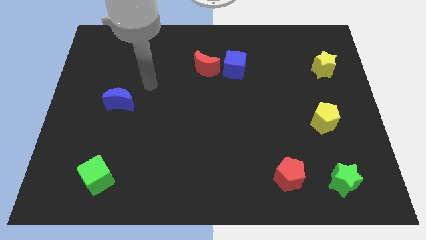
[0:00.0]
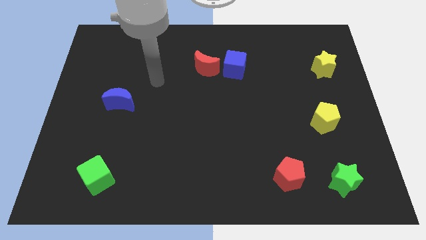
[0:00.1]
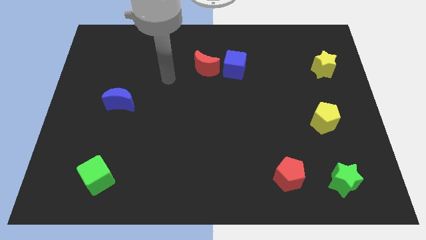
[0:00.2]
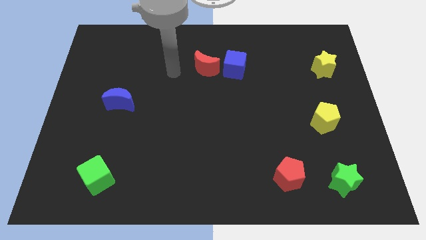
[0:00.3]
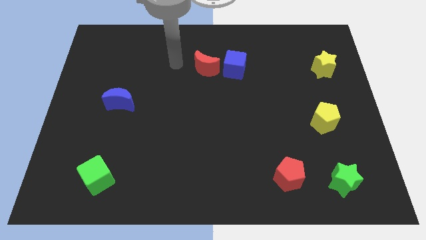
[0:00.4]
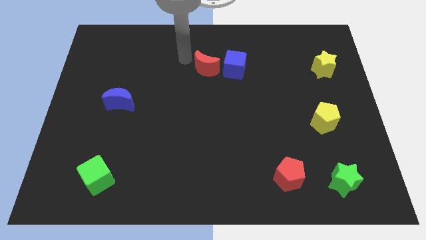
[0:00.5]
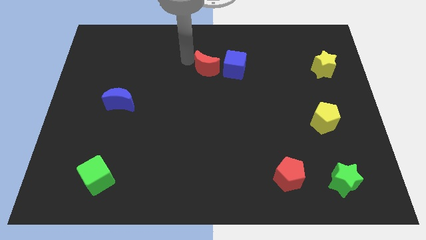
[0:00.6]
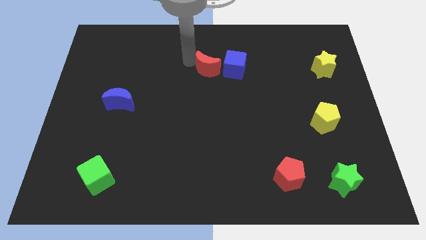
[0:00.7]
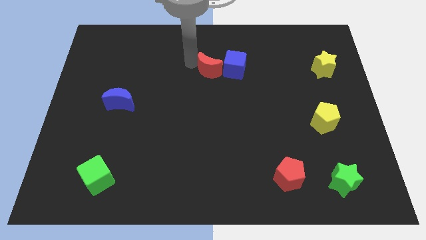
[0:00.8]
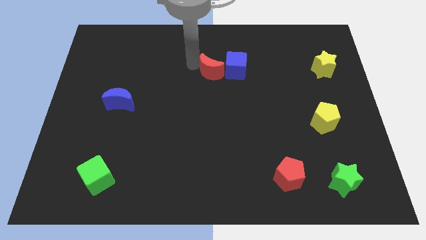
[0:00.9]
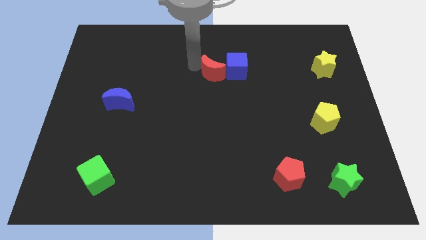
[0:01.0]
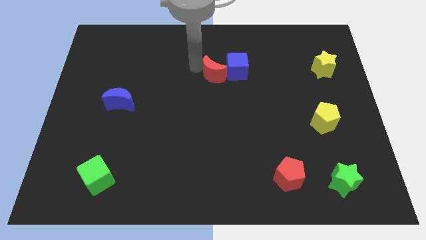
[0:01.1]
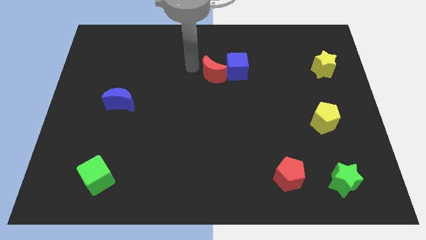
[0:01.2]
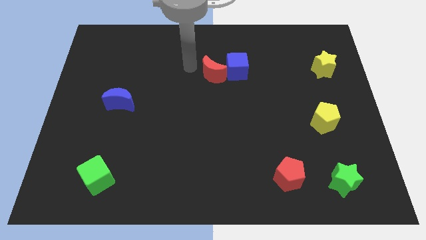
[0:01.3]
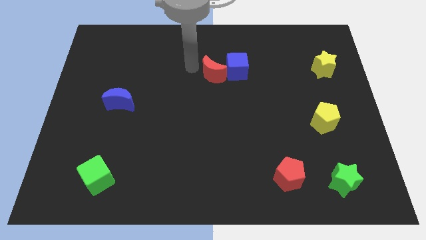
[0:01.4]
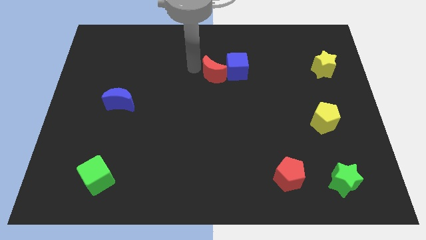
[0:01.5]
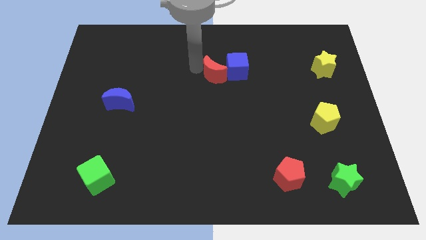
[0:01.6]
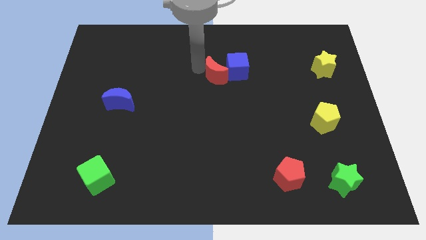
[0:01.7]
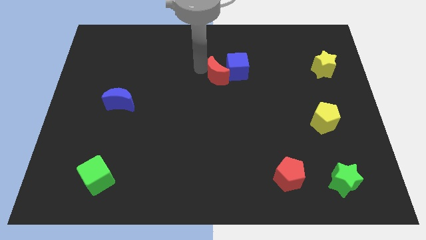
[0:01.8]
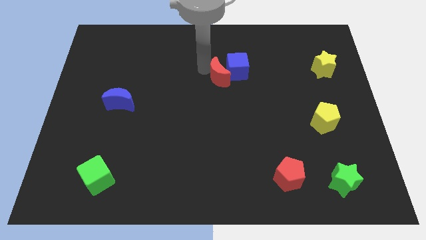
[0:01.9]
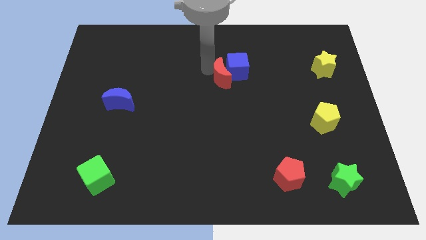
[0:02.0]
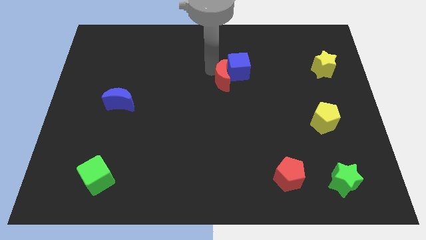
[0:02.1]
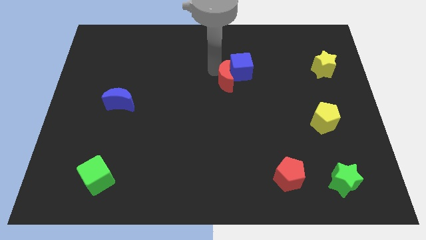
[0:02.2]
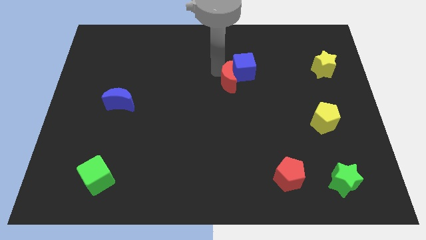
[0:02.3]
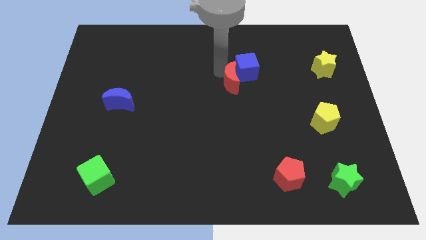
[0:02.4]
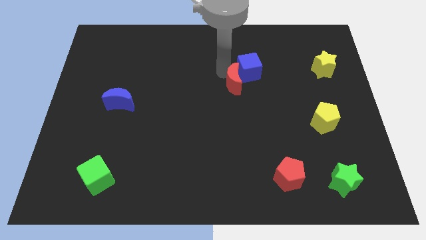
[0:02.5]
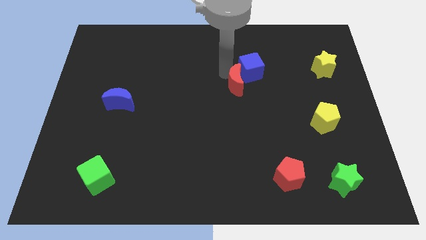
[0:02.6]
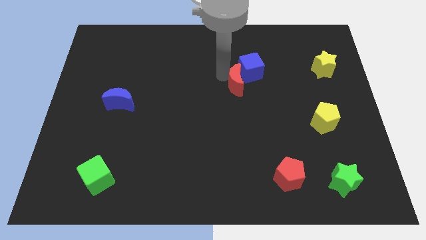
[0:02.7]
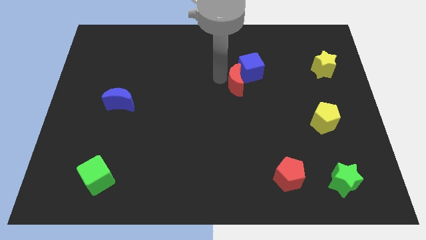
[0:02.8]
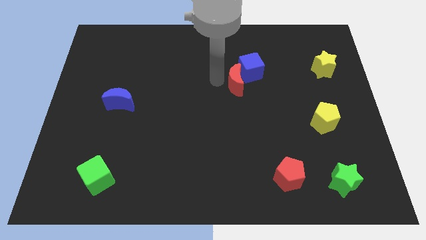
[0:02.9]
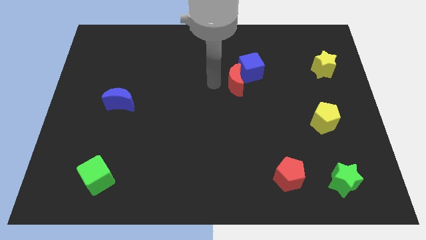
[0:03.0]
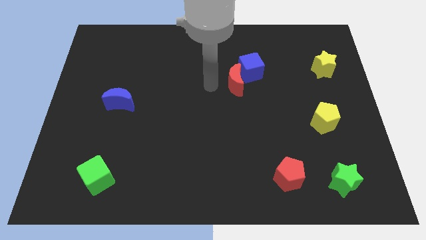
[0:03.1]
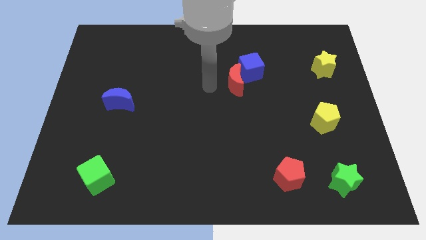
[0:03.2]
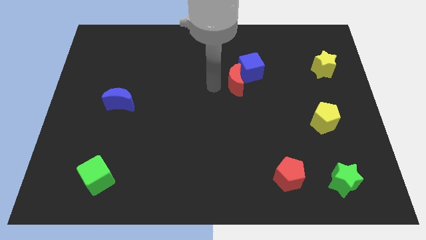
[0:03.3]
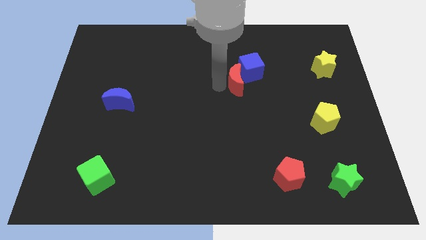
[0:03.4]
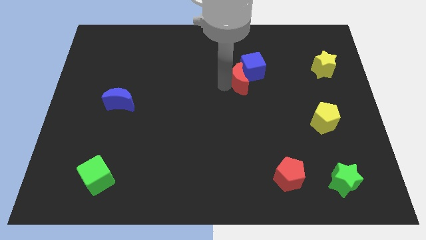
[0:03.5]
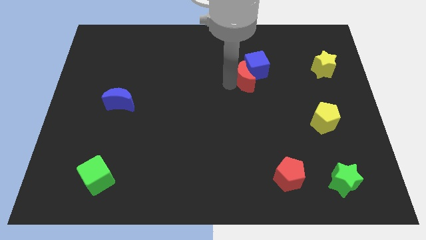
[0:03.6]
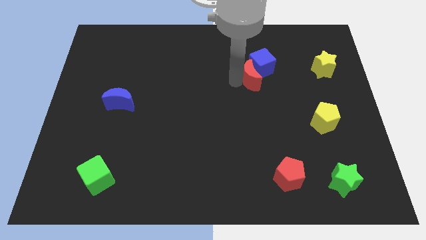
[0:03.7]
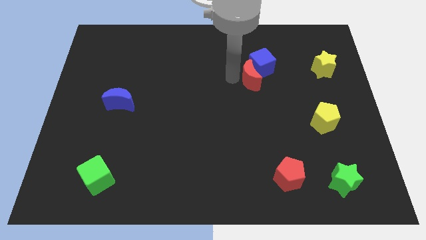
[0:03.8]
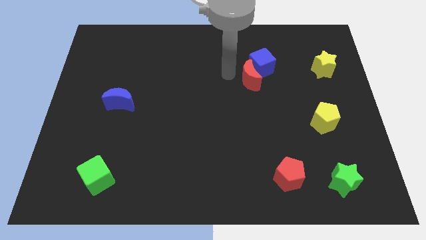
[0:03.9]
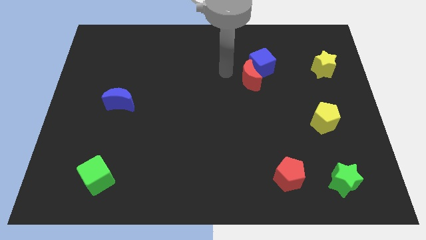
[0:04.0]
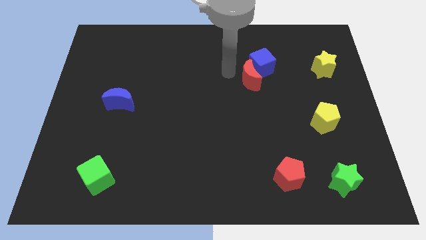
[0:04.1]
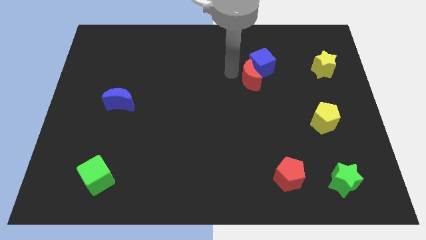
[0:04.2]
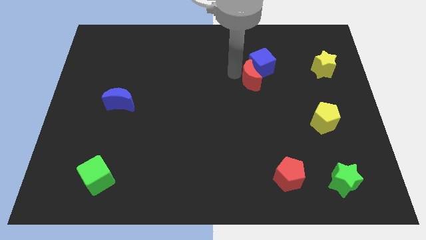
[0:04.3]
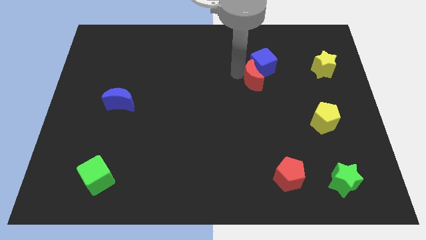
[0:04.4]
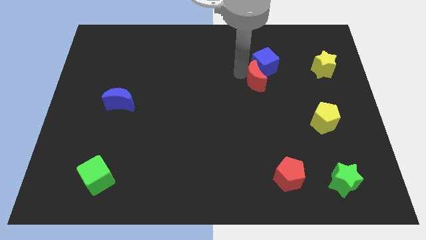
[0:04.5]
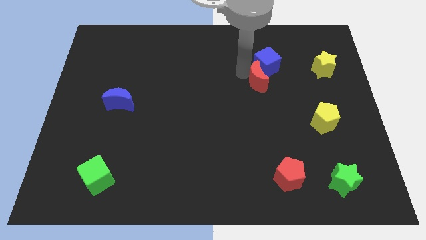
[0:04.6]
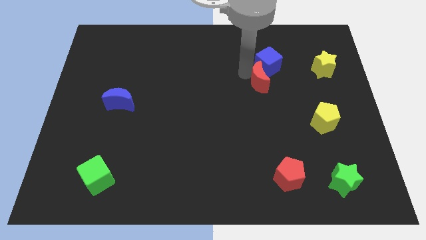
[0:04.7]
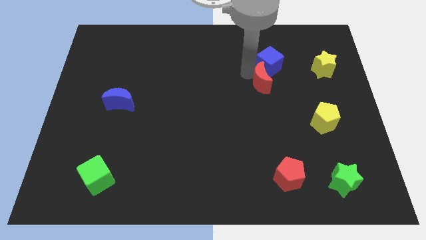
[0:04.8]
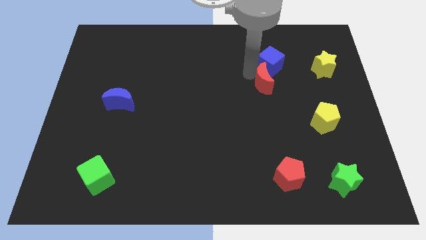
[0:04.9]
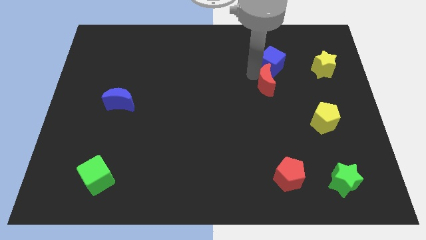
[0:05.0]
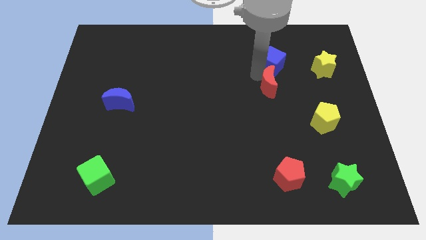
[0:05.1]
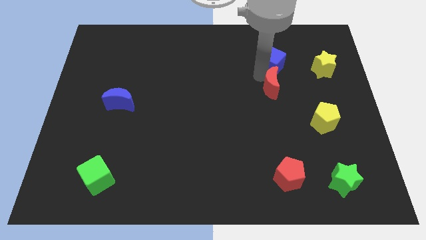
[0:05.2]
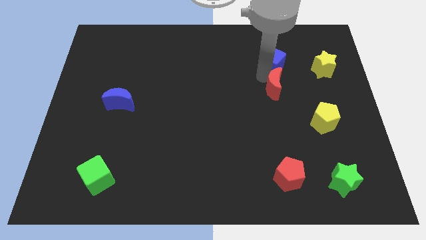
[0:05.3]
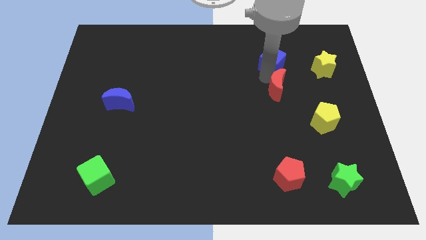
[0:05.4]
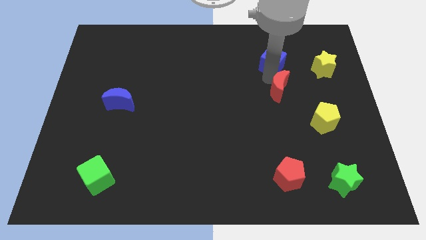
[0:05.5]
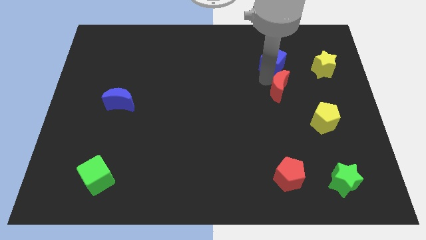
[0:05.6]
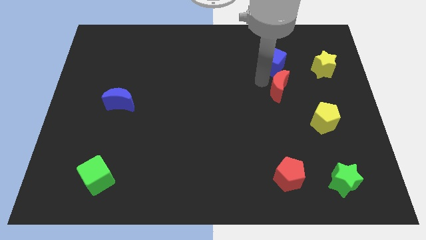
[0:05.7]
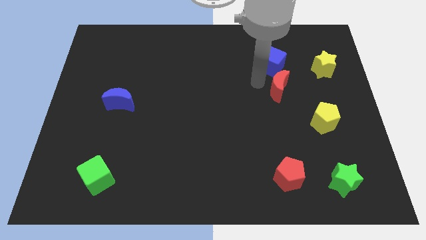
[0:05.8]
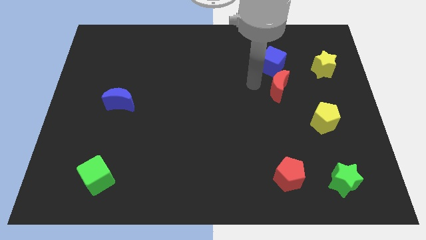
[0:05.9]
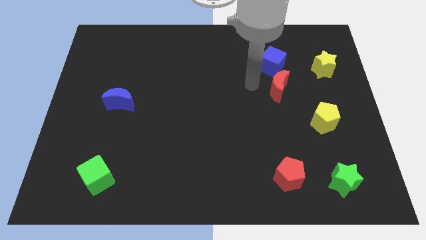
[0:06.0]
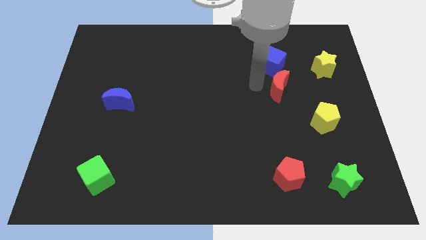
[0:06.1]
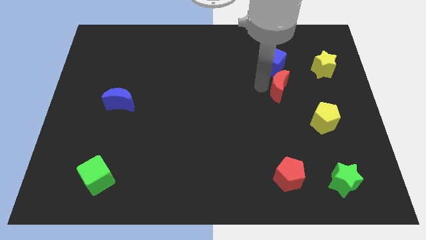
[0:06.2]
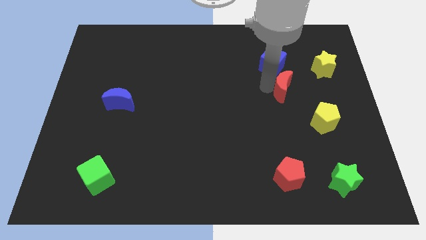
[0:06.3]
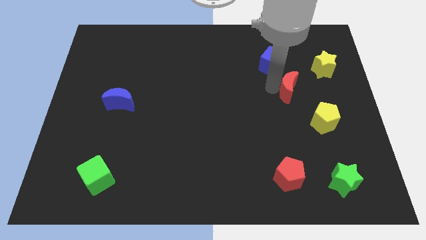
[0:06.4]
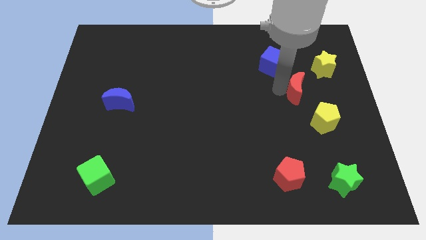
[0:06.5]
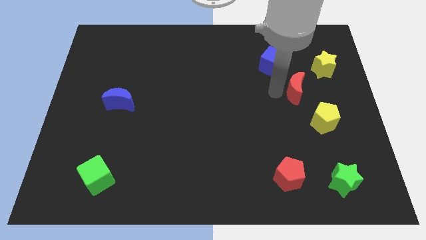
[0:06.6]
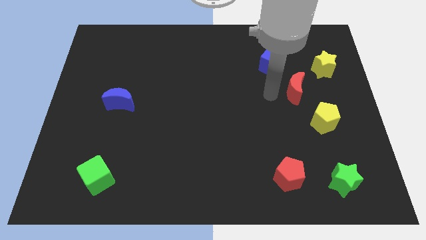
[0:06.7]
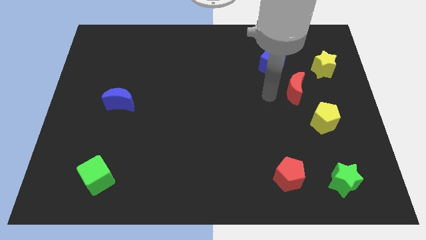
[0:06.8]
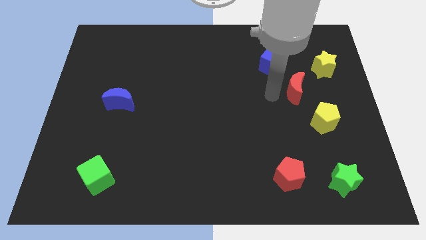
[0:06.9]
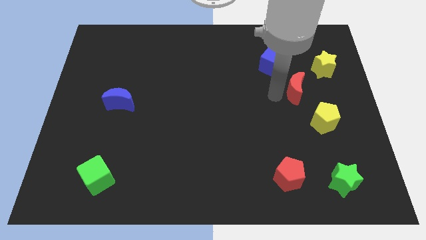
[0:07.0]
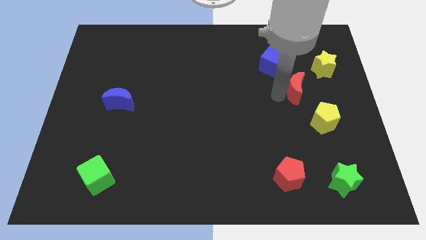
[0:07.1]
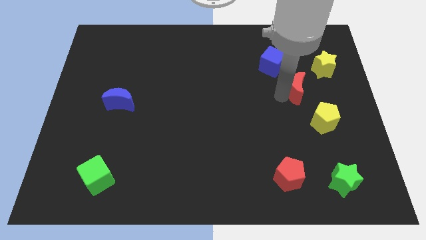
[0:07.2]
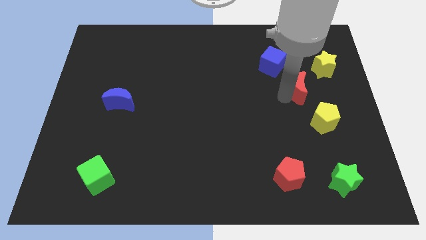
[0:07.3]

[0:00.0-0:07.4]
put the red moon above the yellow pentagon
